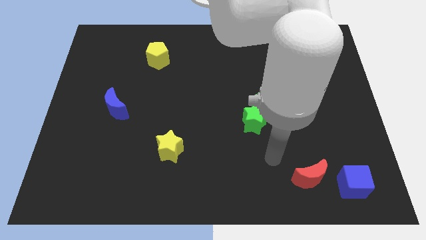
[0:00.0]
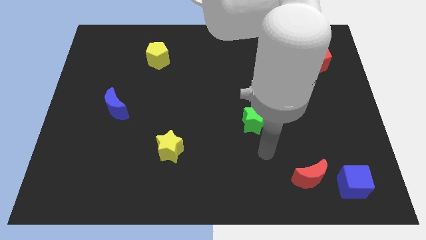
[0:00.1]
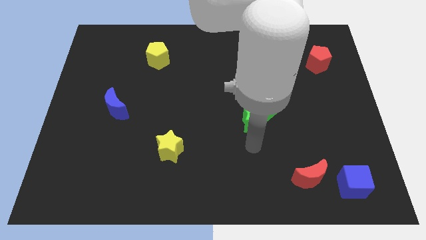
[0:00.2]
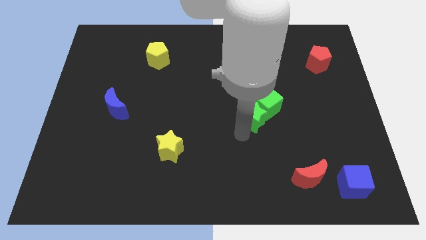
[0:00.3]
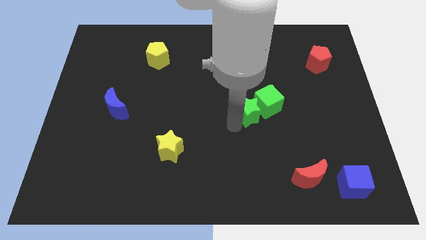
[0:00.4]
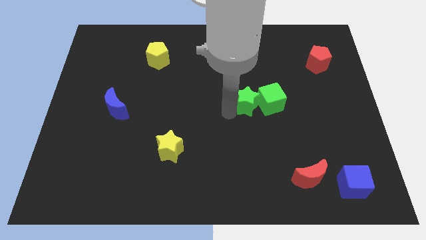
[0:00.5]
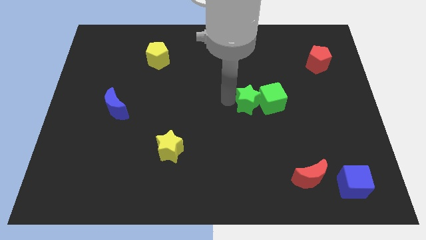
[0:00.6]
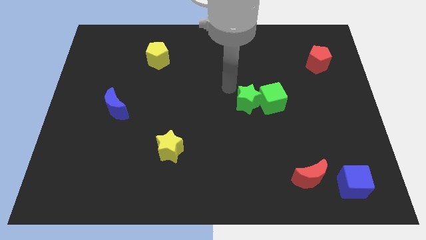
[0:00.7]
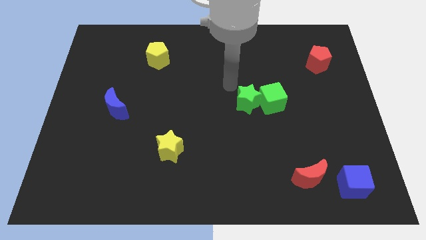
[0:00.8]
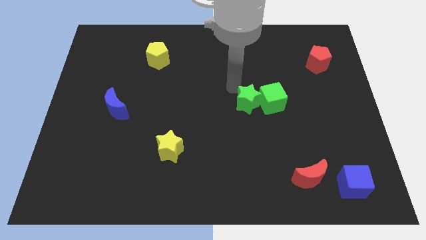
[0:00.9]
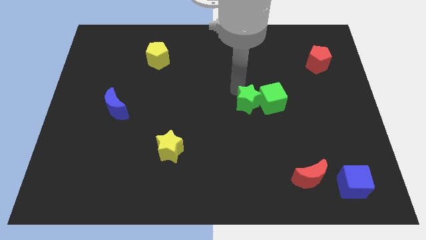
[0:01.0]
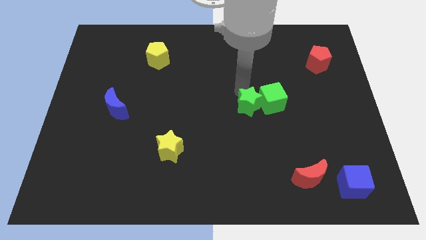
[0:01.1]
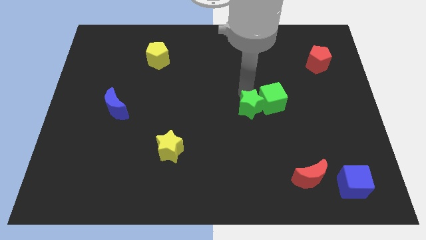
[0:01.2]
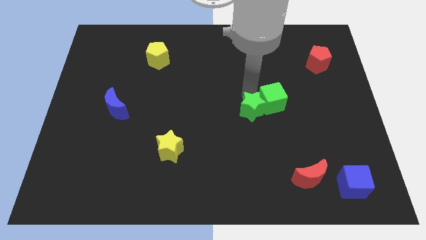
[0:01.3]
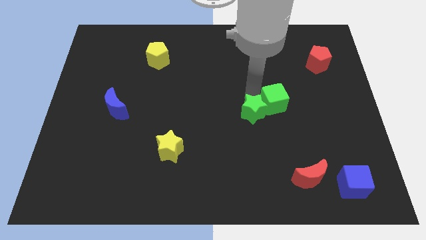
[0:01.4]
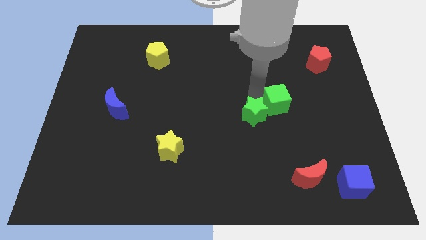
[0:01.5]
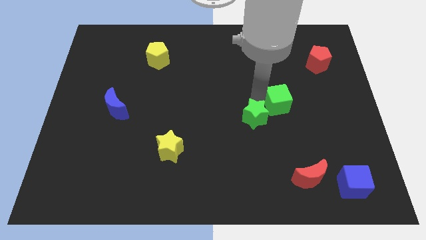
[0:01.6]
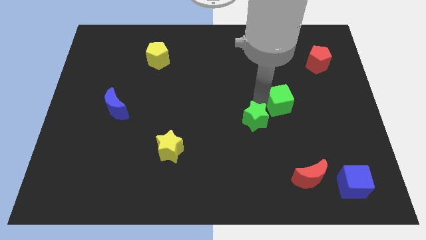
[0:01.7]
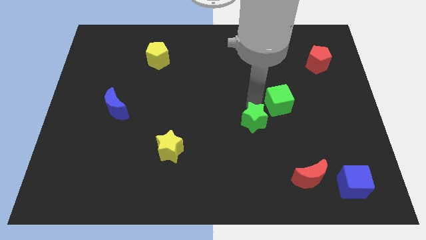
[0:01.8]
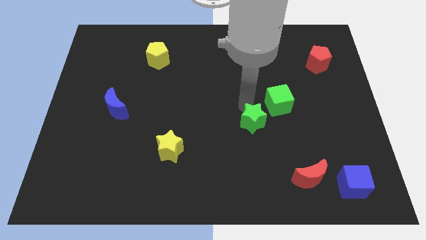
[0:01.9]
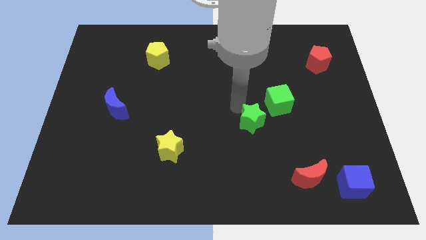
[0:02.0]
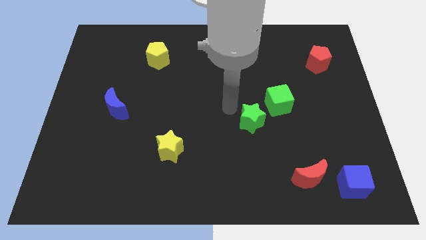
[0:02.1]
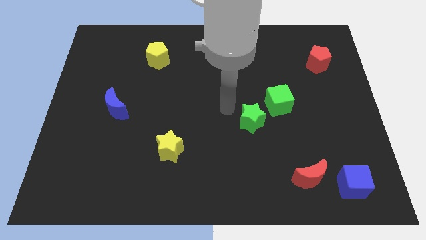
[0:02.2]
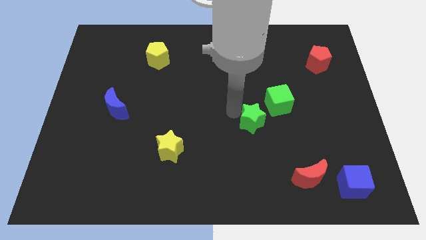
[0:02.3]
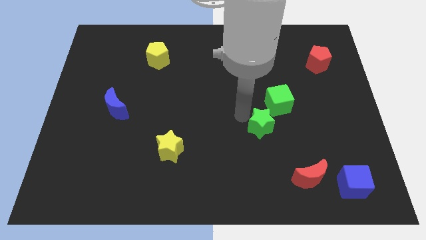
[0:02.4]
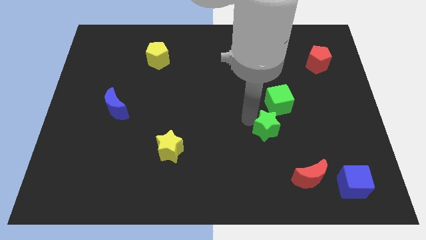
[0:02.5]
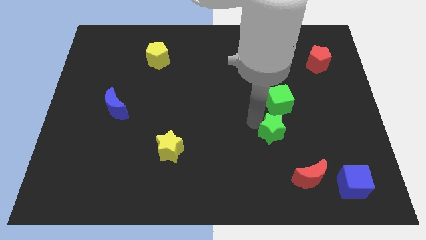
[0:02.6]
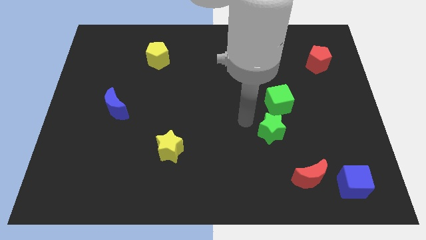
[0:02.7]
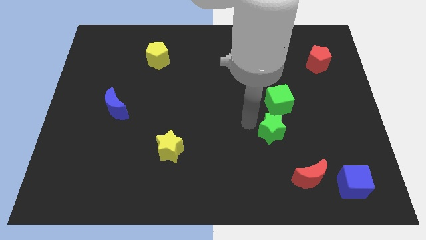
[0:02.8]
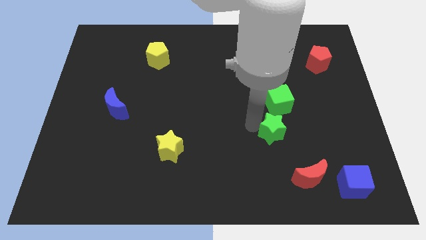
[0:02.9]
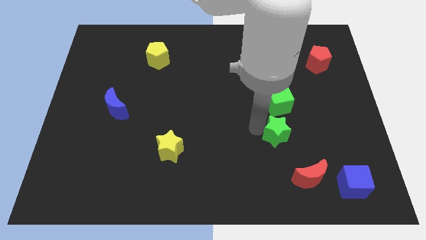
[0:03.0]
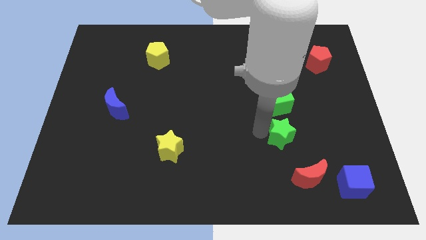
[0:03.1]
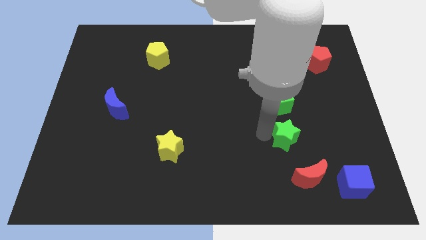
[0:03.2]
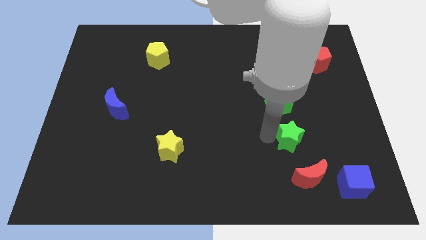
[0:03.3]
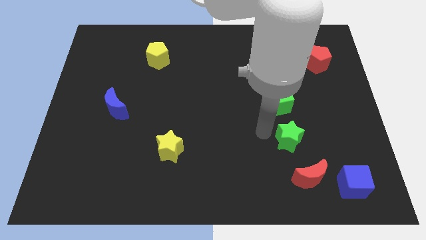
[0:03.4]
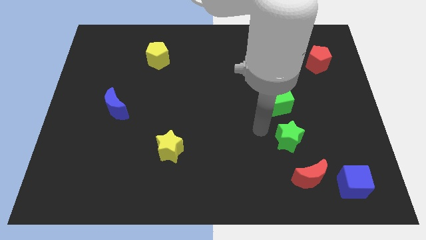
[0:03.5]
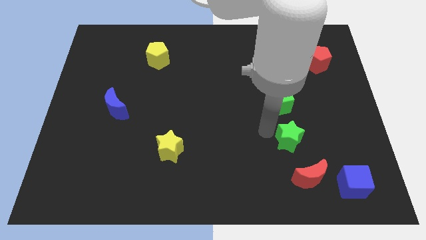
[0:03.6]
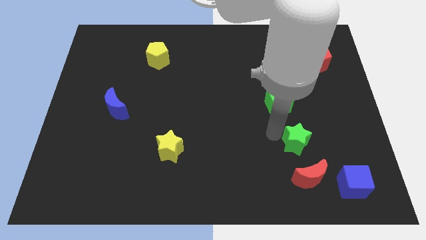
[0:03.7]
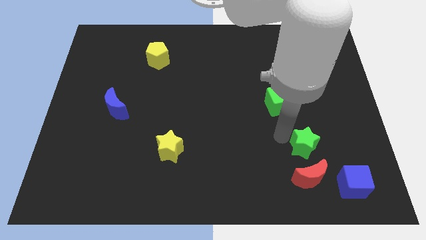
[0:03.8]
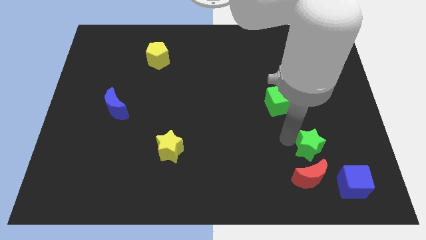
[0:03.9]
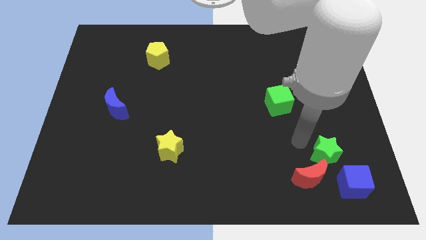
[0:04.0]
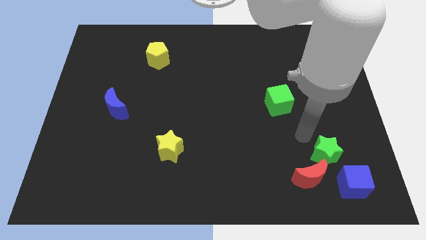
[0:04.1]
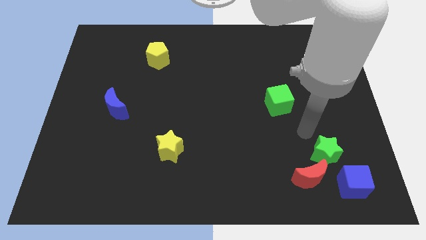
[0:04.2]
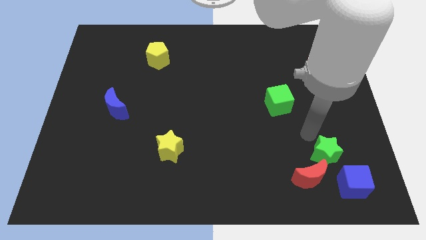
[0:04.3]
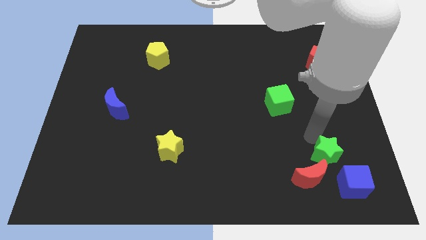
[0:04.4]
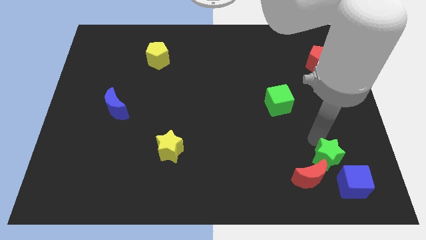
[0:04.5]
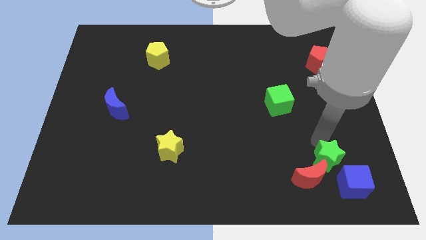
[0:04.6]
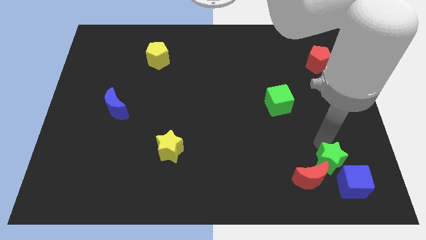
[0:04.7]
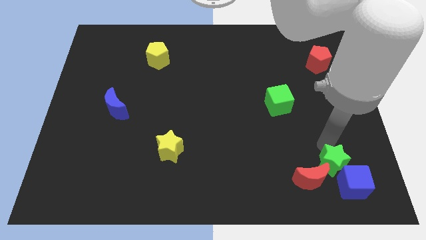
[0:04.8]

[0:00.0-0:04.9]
put the green star towards the blue cube

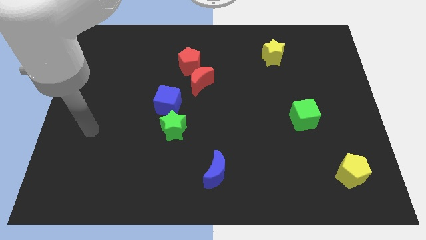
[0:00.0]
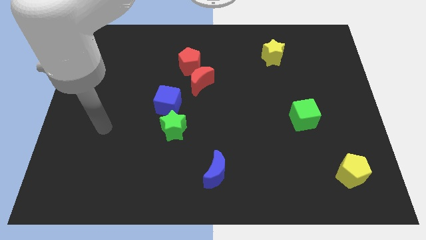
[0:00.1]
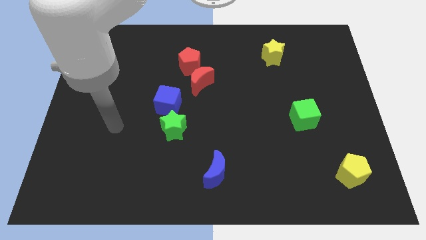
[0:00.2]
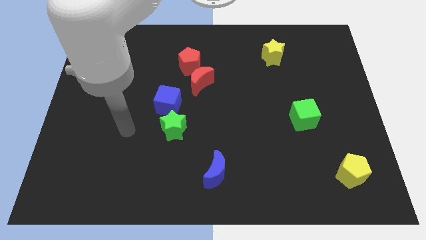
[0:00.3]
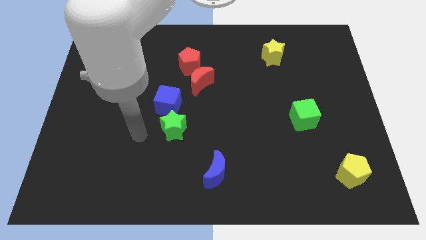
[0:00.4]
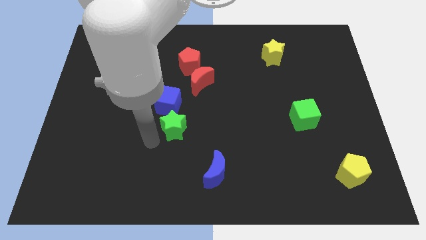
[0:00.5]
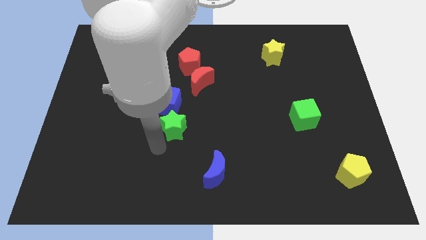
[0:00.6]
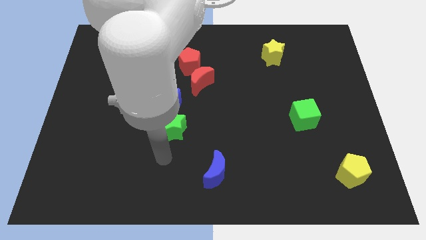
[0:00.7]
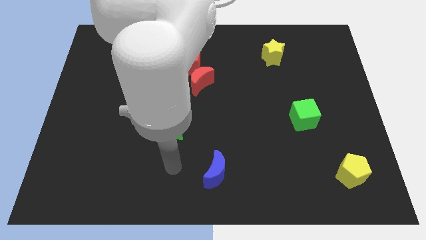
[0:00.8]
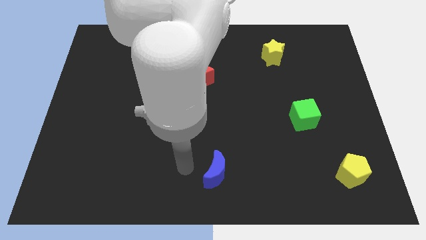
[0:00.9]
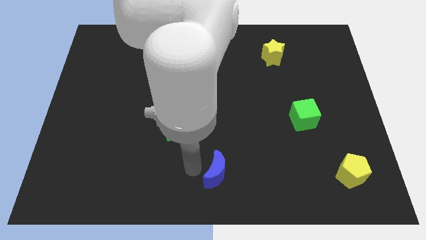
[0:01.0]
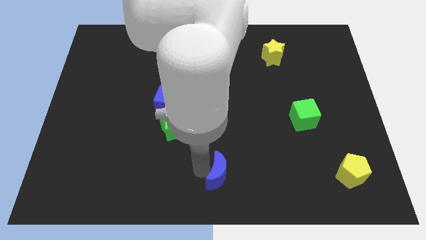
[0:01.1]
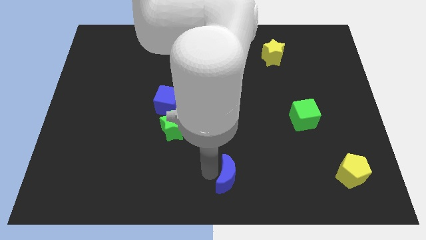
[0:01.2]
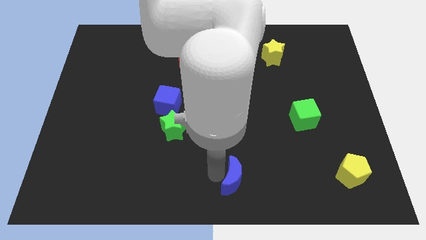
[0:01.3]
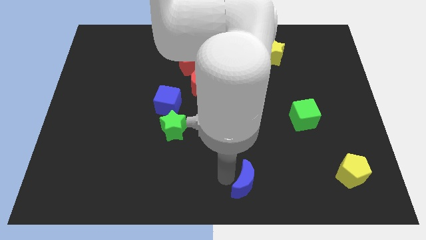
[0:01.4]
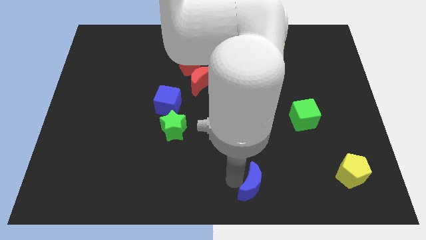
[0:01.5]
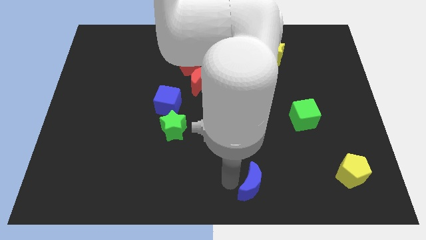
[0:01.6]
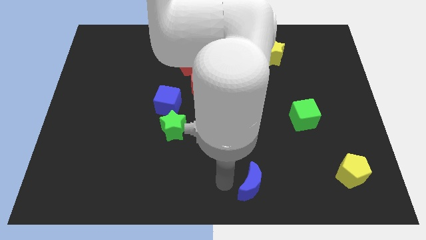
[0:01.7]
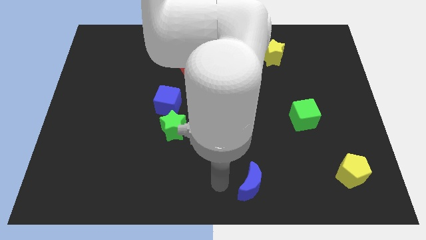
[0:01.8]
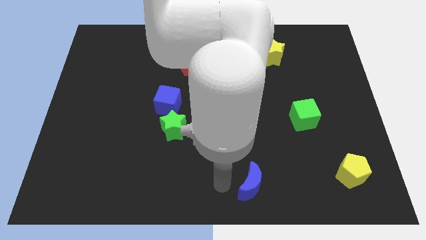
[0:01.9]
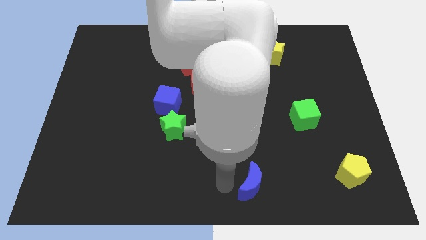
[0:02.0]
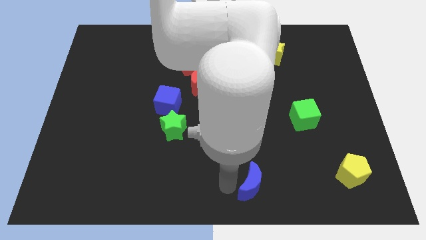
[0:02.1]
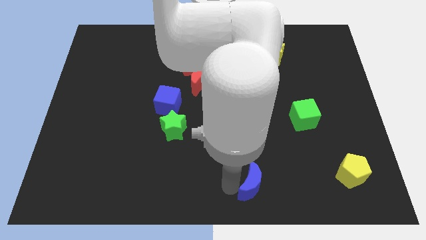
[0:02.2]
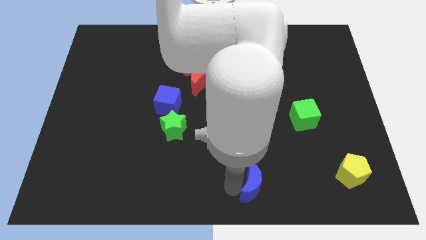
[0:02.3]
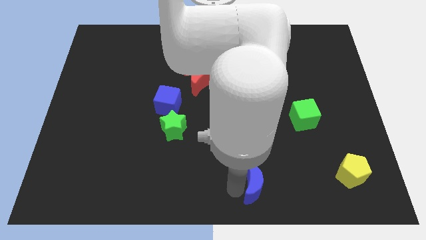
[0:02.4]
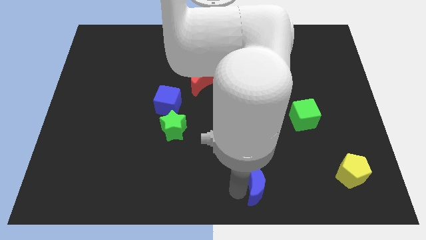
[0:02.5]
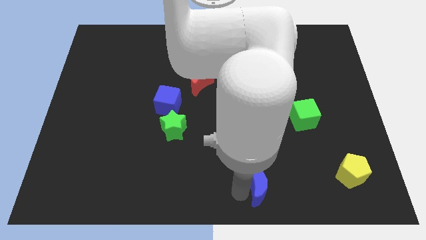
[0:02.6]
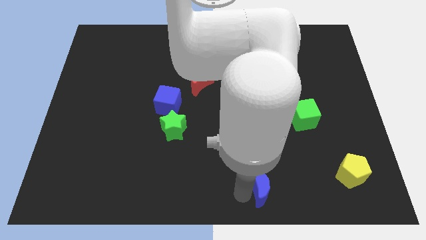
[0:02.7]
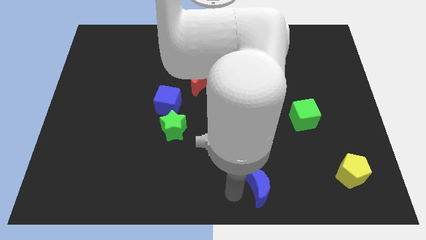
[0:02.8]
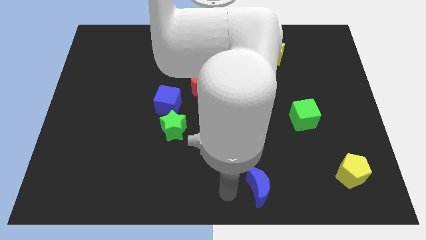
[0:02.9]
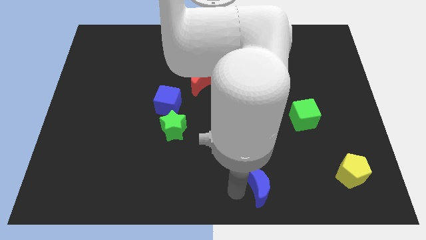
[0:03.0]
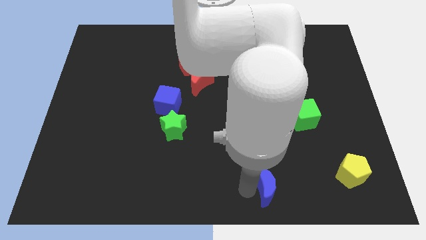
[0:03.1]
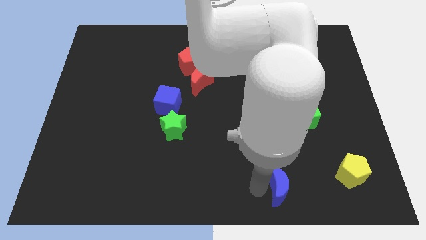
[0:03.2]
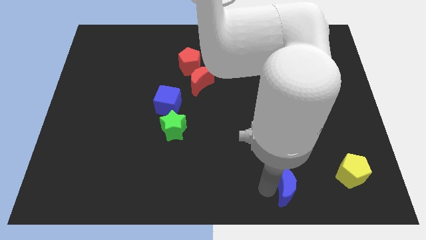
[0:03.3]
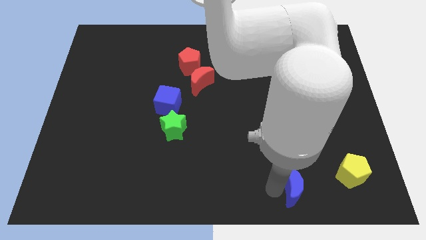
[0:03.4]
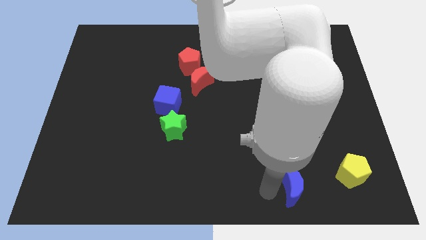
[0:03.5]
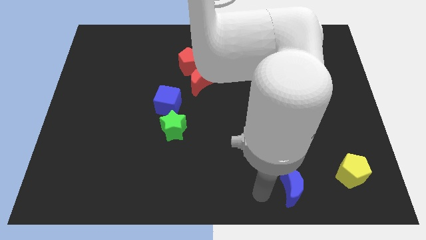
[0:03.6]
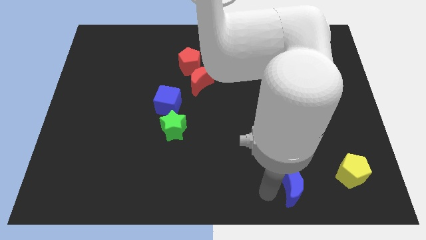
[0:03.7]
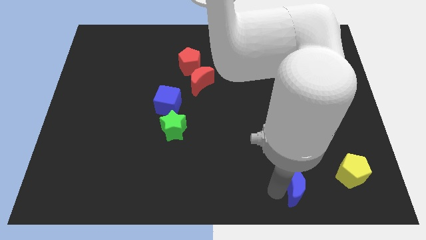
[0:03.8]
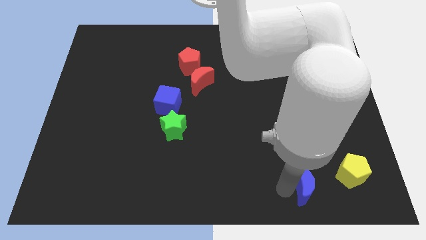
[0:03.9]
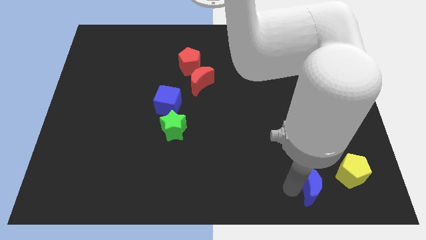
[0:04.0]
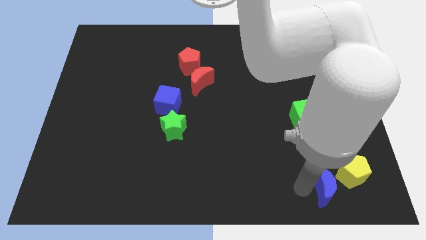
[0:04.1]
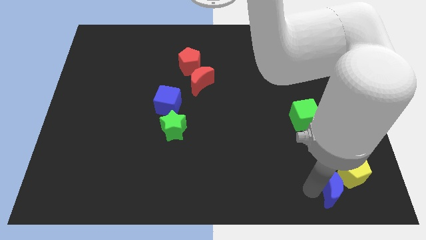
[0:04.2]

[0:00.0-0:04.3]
push the blue moon to the yellow pentagon
